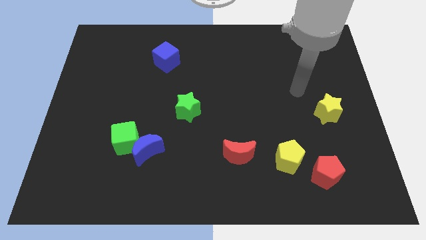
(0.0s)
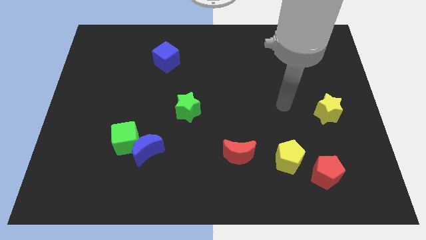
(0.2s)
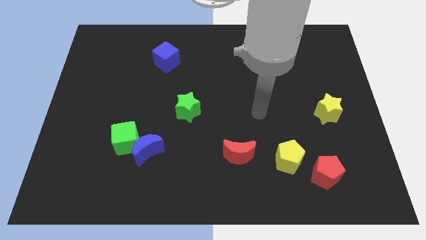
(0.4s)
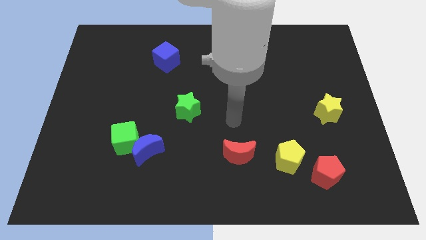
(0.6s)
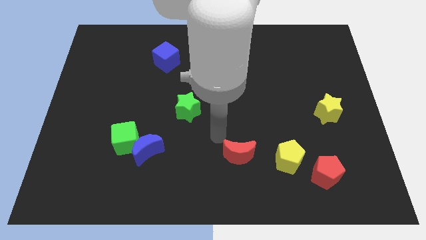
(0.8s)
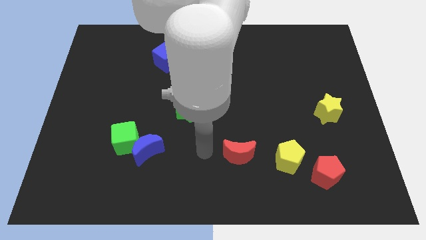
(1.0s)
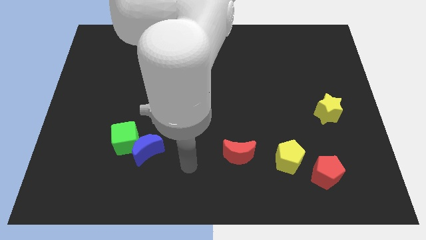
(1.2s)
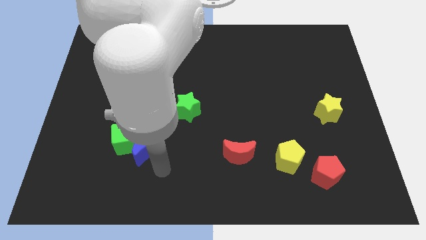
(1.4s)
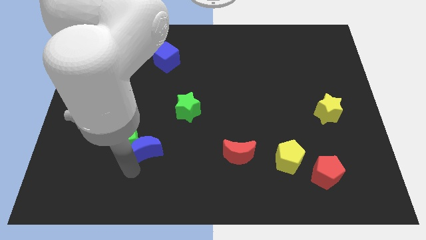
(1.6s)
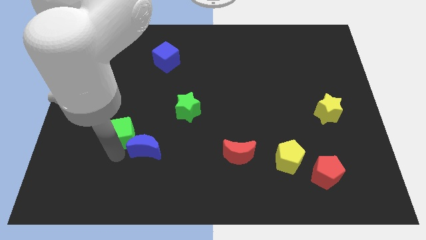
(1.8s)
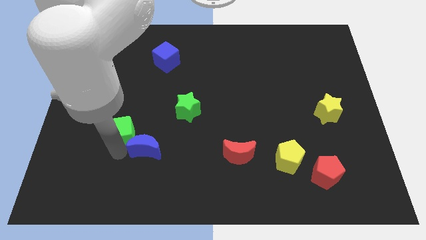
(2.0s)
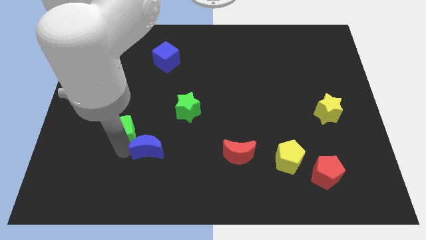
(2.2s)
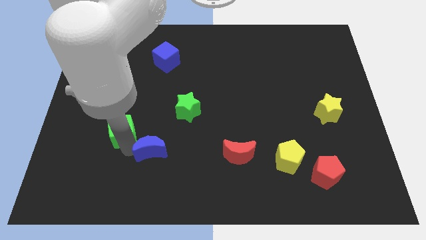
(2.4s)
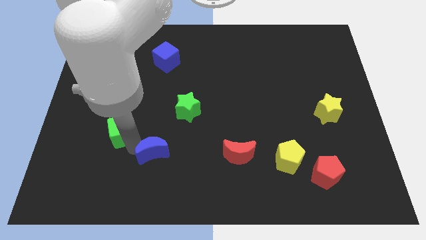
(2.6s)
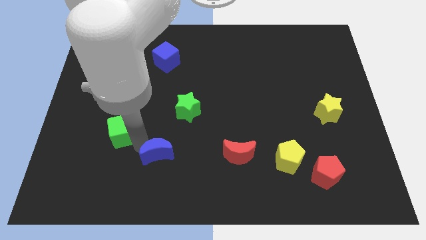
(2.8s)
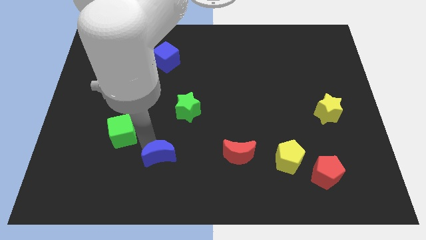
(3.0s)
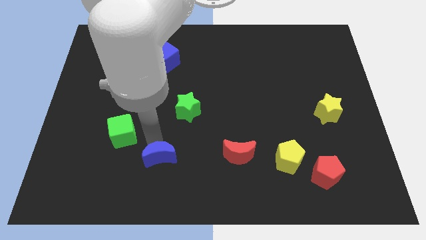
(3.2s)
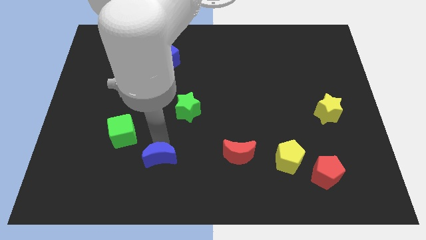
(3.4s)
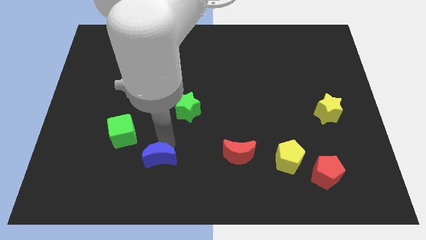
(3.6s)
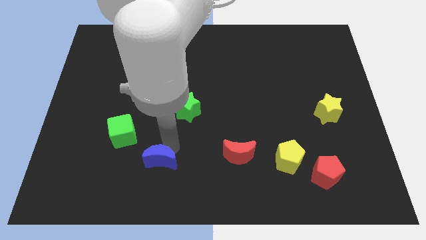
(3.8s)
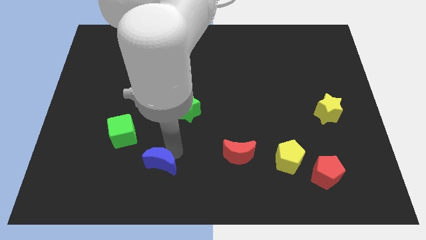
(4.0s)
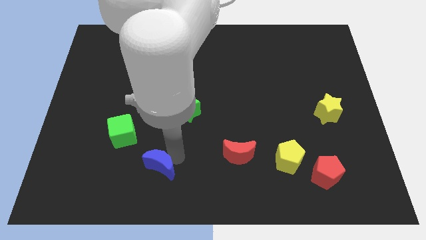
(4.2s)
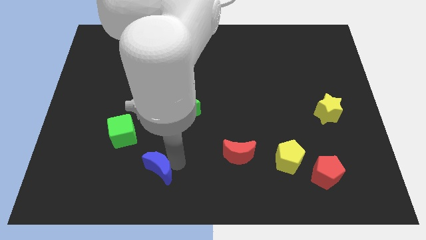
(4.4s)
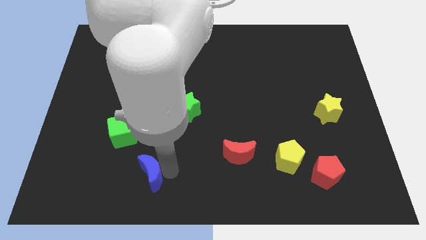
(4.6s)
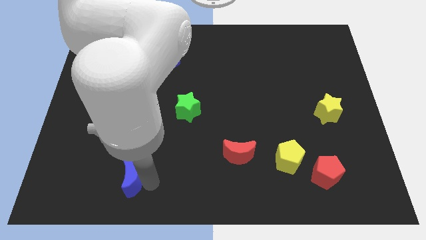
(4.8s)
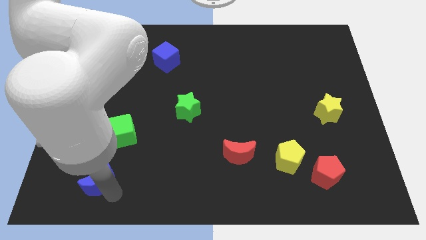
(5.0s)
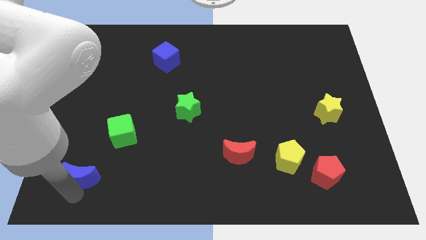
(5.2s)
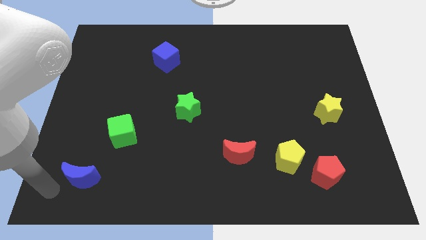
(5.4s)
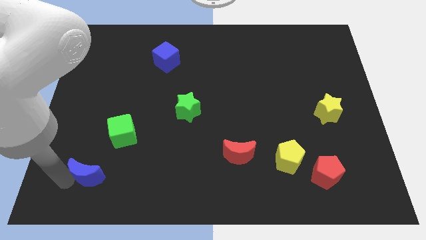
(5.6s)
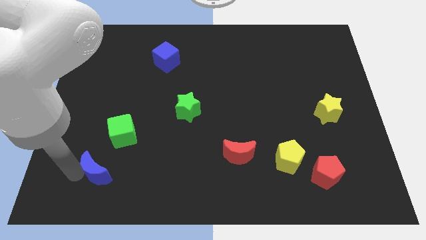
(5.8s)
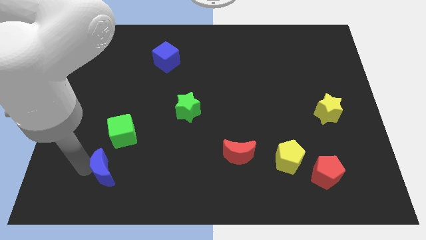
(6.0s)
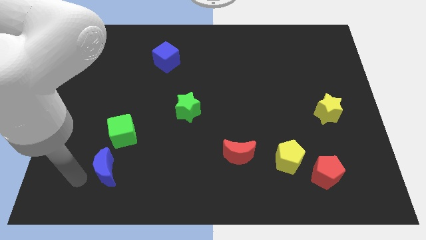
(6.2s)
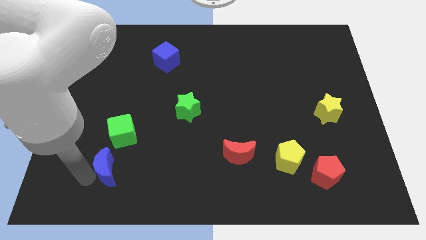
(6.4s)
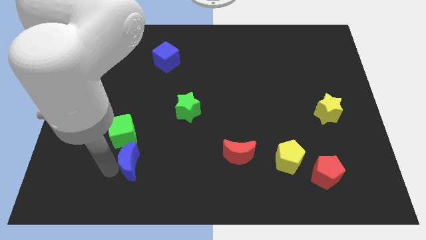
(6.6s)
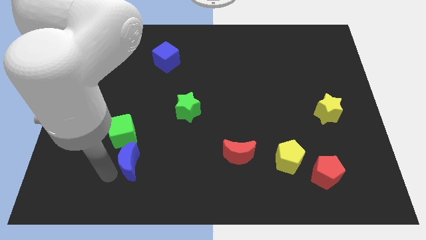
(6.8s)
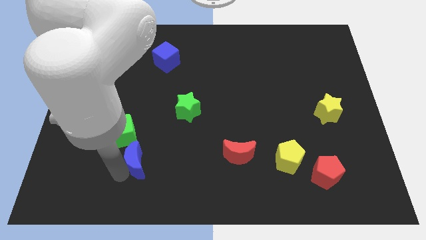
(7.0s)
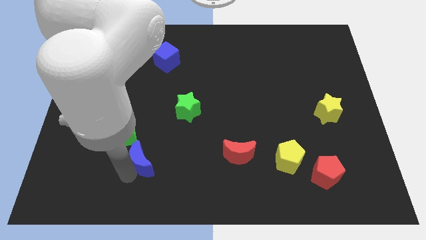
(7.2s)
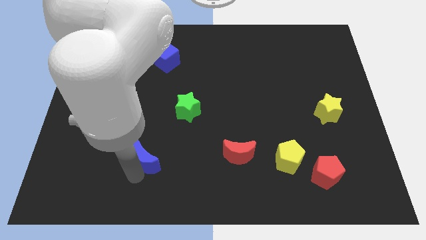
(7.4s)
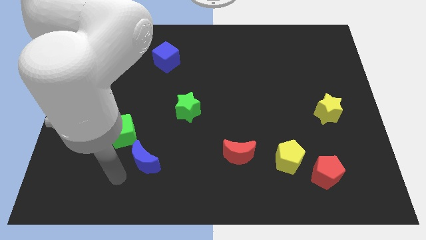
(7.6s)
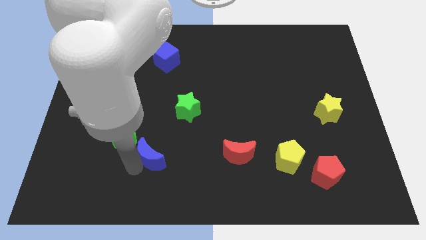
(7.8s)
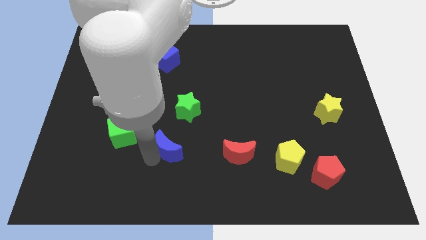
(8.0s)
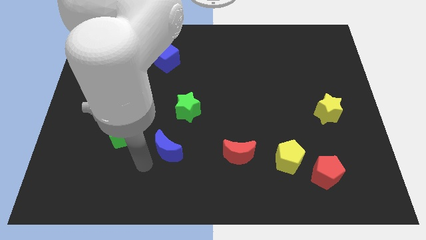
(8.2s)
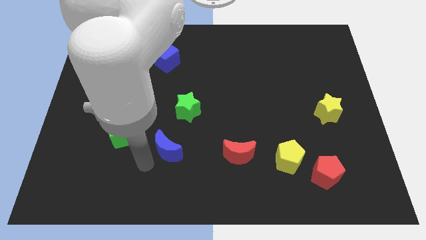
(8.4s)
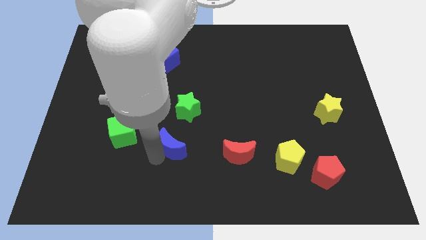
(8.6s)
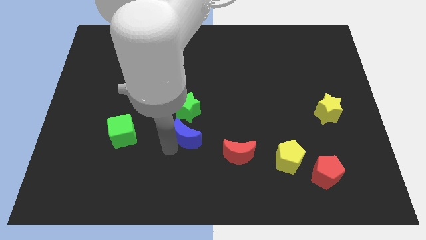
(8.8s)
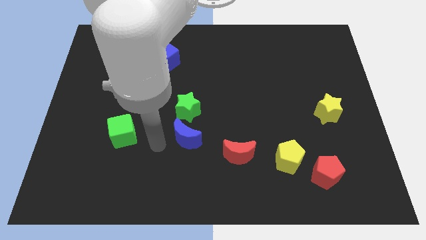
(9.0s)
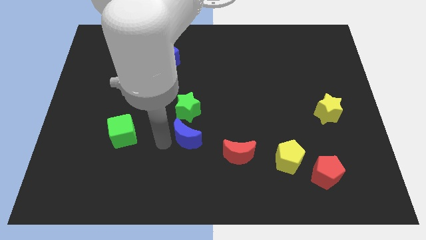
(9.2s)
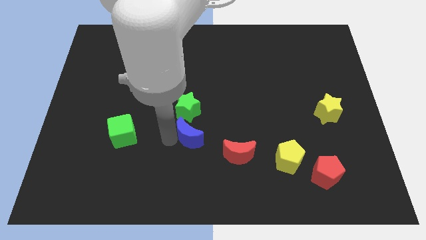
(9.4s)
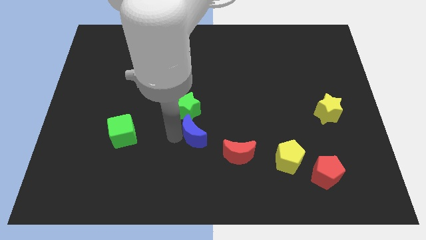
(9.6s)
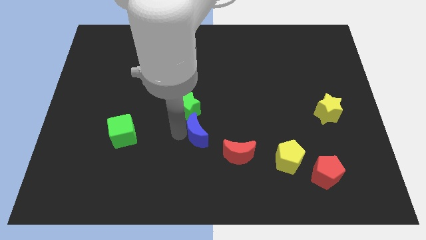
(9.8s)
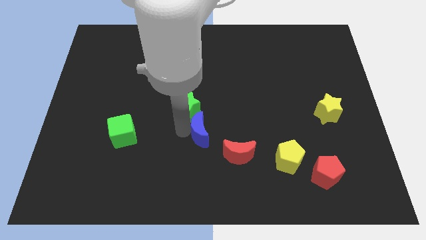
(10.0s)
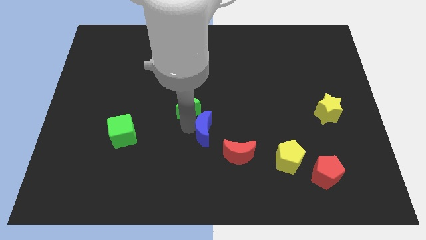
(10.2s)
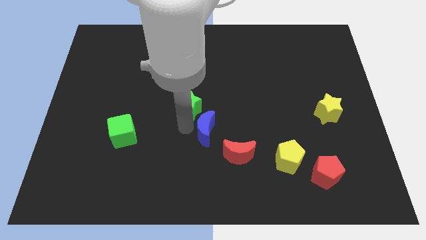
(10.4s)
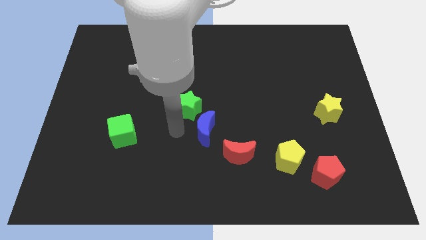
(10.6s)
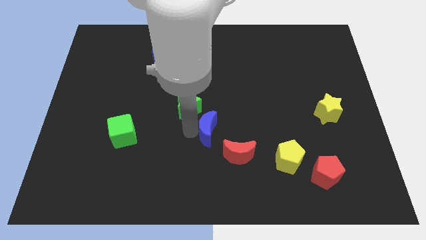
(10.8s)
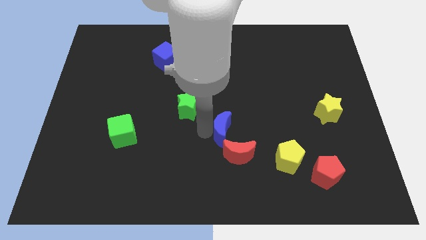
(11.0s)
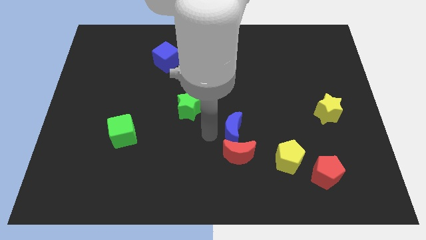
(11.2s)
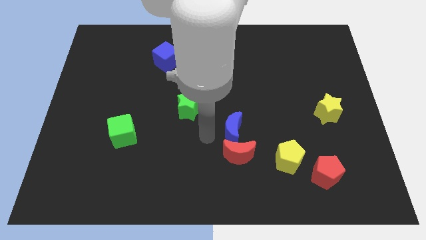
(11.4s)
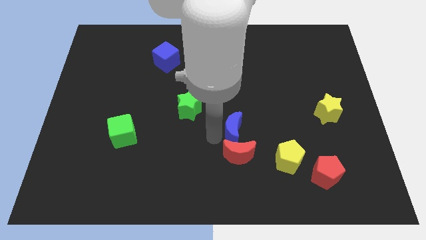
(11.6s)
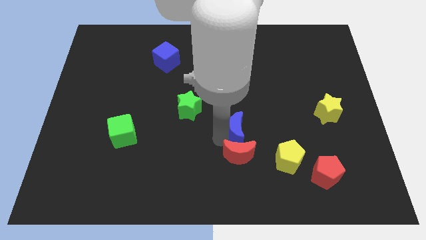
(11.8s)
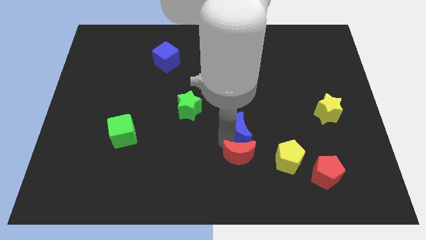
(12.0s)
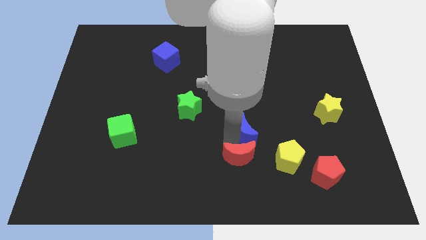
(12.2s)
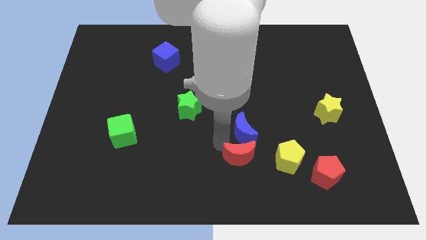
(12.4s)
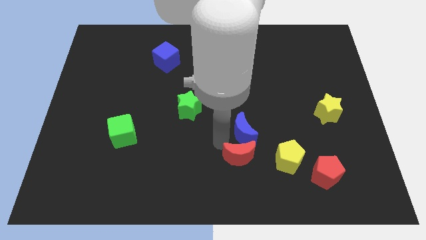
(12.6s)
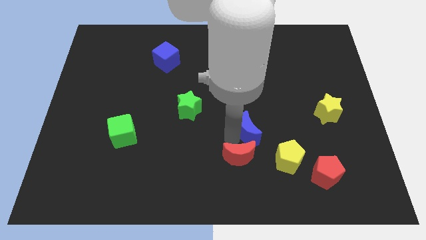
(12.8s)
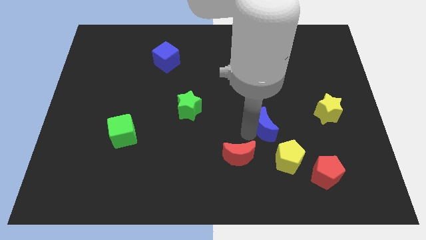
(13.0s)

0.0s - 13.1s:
slide the blue moon to the top side of the yellow pentagon

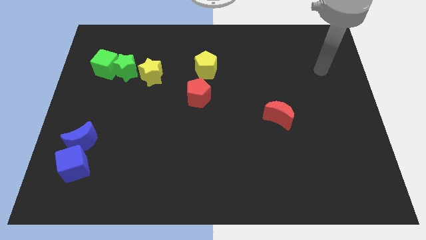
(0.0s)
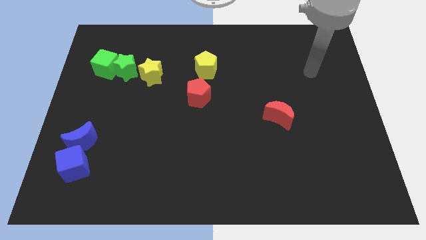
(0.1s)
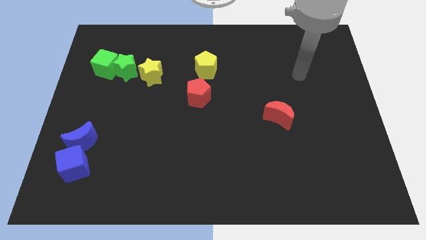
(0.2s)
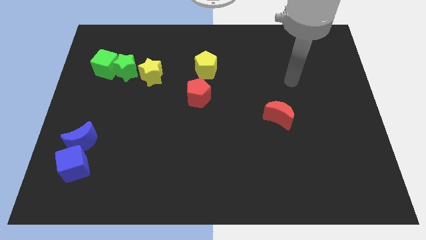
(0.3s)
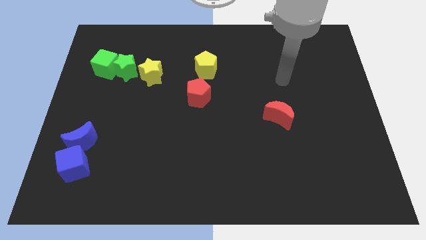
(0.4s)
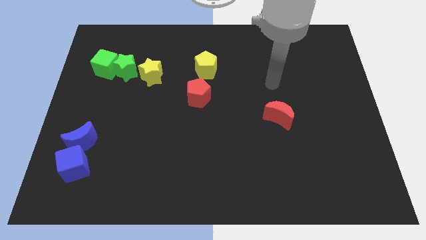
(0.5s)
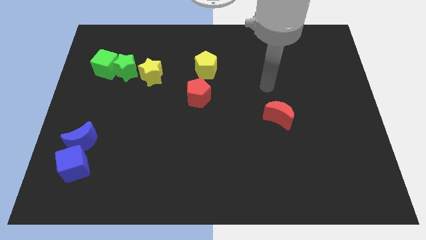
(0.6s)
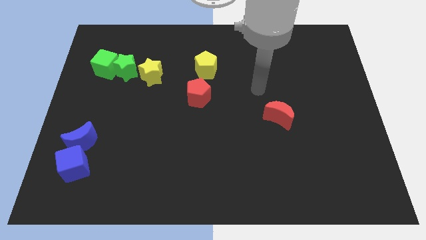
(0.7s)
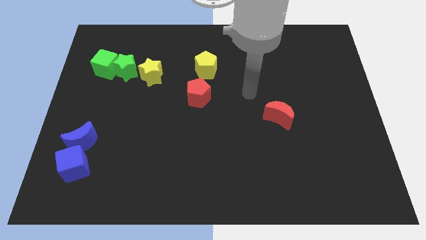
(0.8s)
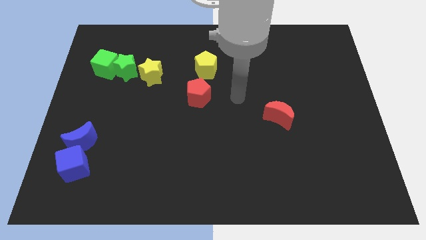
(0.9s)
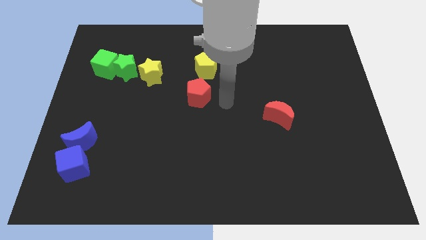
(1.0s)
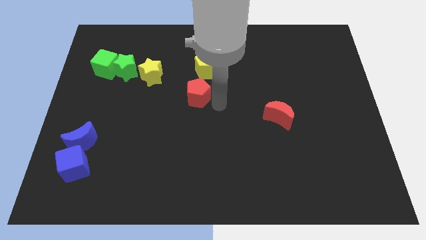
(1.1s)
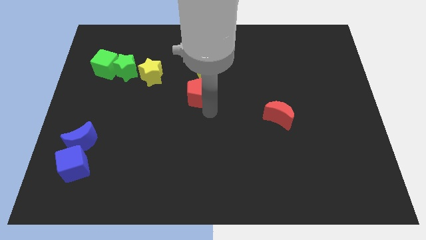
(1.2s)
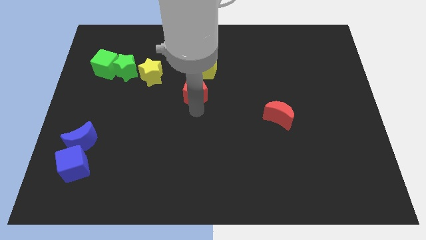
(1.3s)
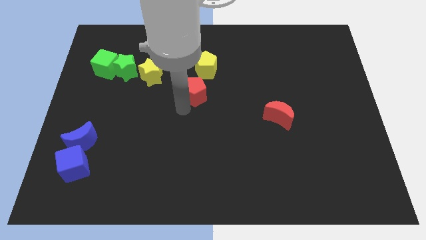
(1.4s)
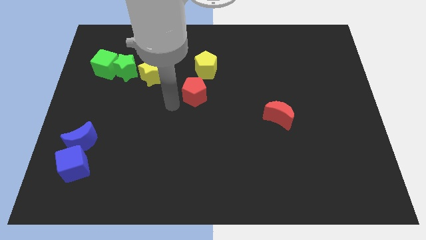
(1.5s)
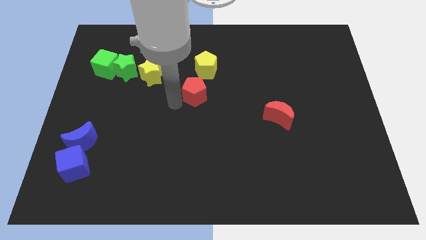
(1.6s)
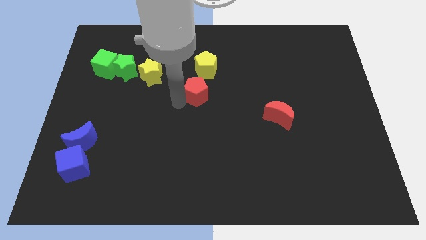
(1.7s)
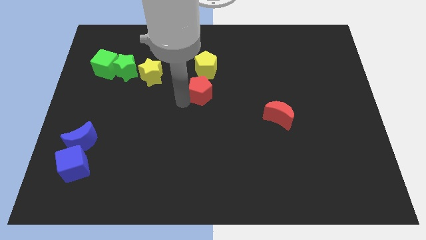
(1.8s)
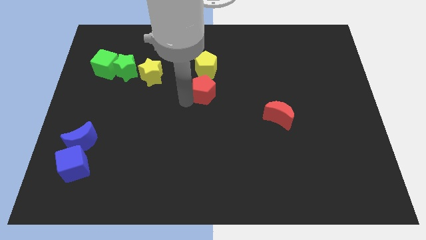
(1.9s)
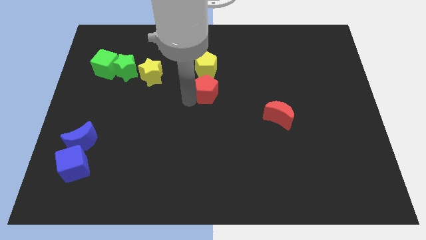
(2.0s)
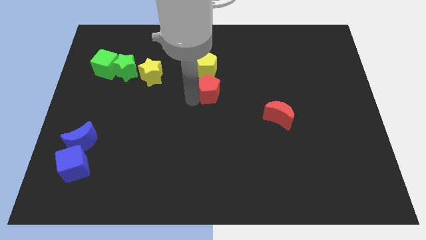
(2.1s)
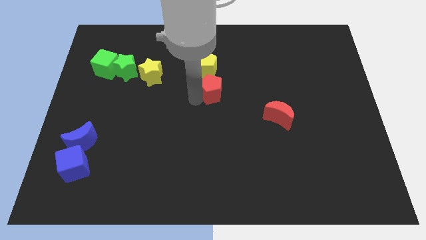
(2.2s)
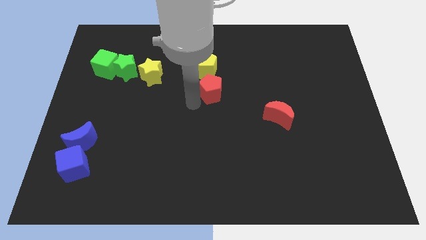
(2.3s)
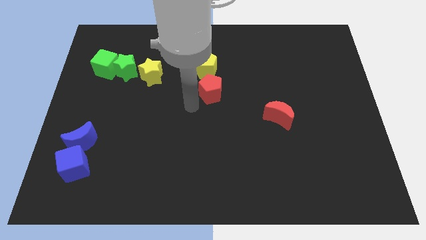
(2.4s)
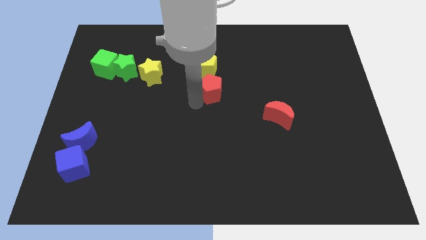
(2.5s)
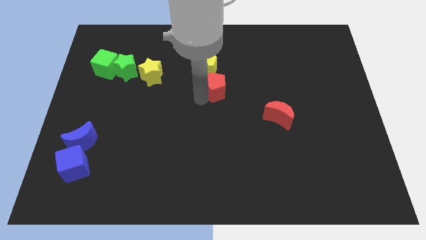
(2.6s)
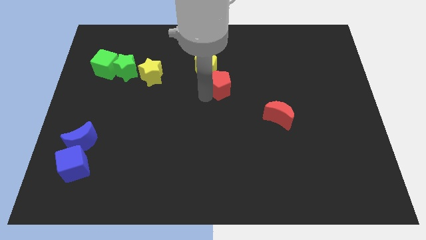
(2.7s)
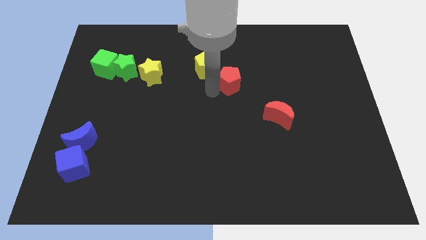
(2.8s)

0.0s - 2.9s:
slide the red pentagon to the right of the yellow pentagon
